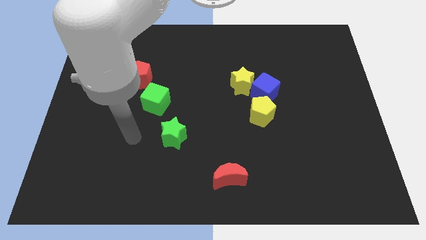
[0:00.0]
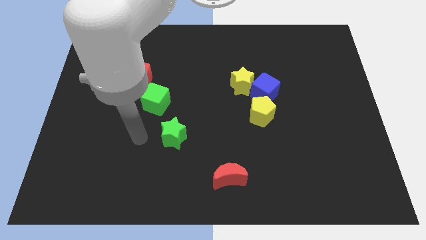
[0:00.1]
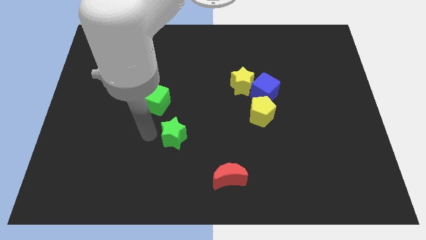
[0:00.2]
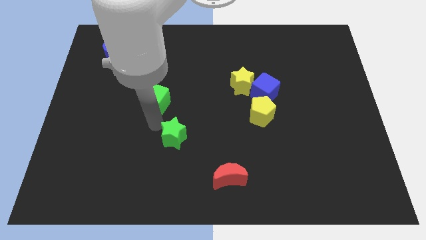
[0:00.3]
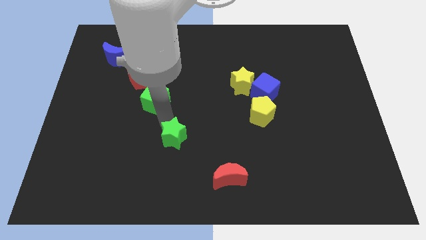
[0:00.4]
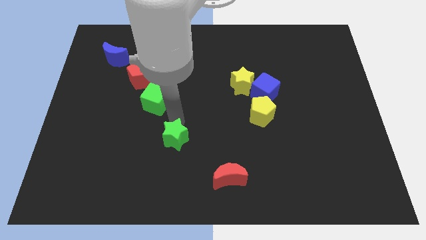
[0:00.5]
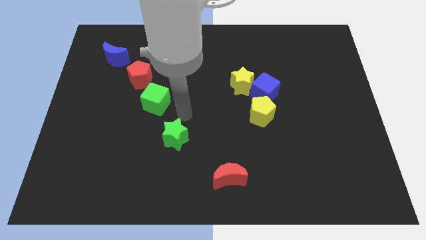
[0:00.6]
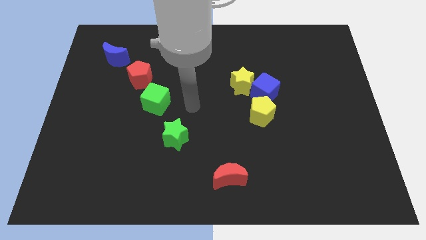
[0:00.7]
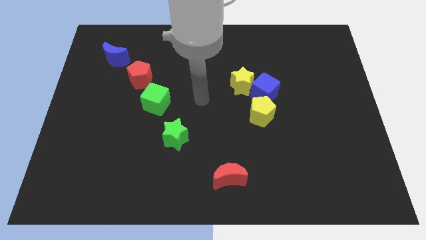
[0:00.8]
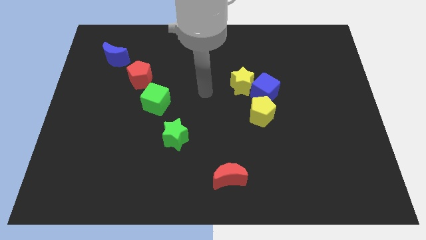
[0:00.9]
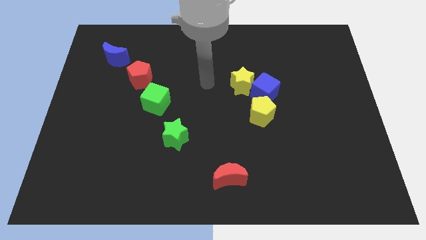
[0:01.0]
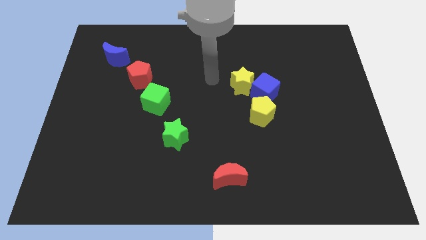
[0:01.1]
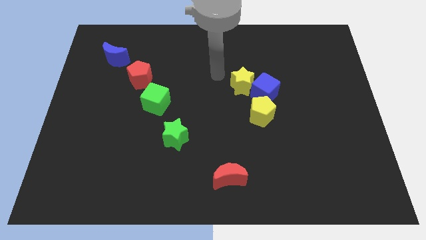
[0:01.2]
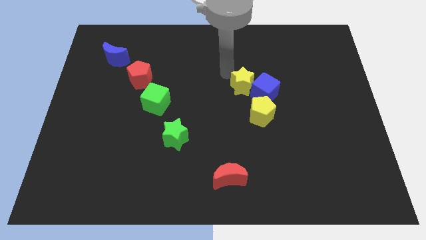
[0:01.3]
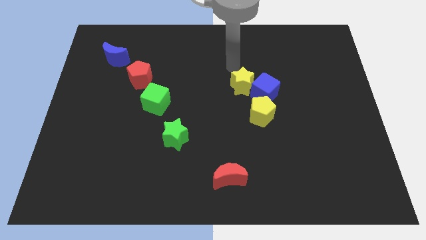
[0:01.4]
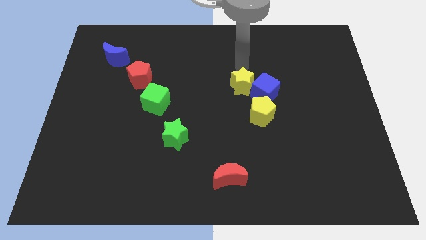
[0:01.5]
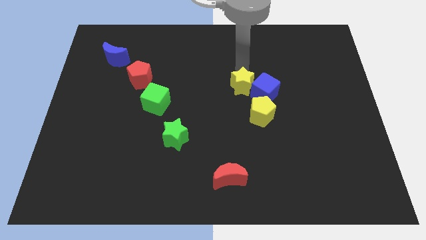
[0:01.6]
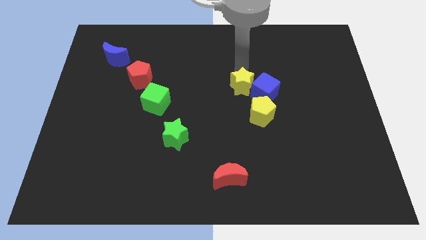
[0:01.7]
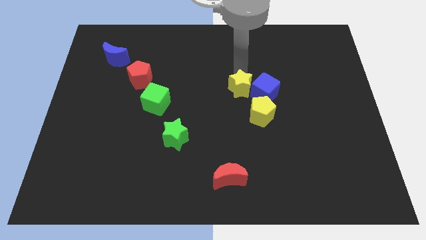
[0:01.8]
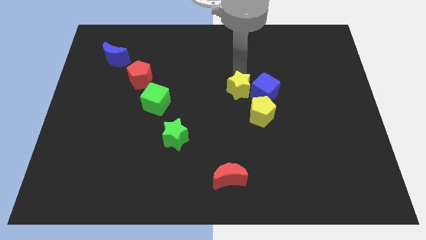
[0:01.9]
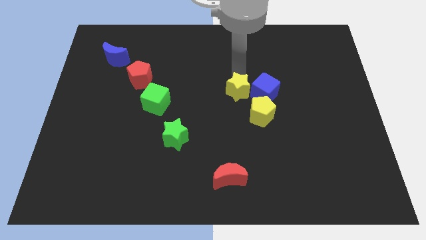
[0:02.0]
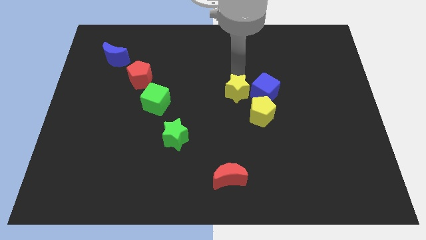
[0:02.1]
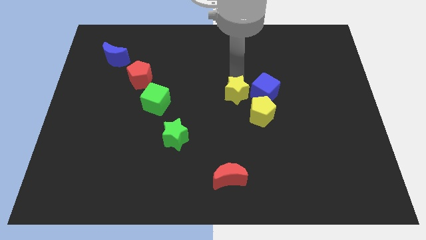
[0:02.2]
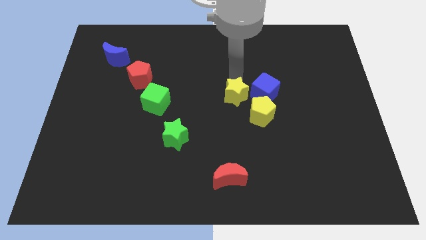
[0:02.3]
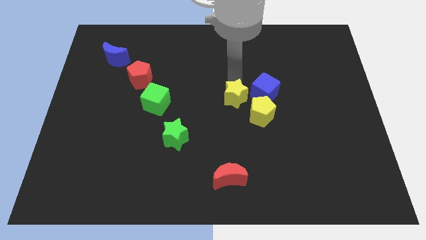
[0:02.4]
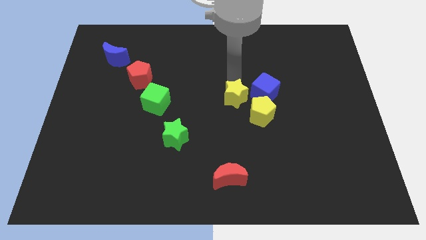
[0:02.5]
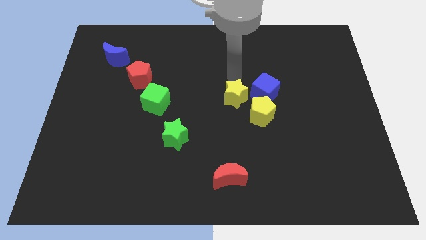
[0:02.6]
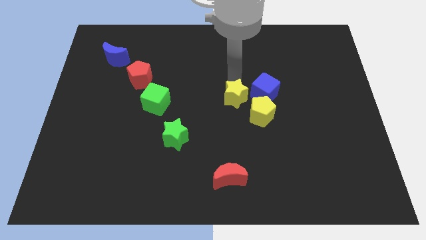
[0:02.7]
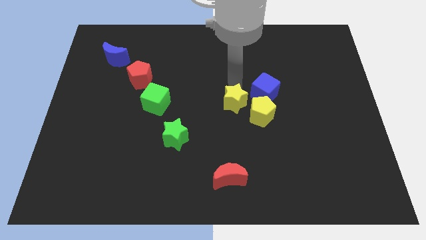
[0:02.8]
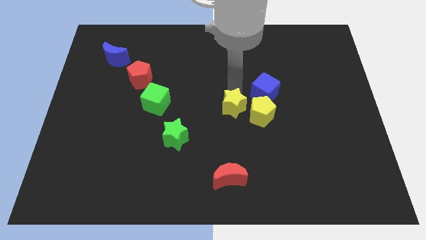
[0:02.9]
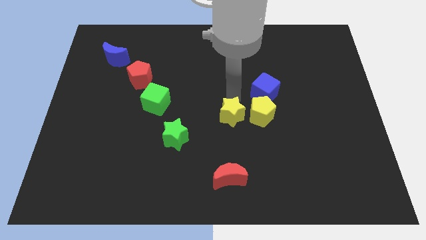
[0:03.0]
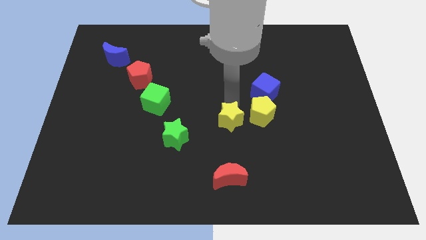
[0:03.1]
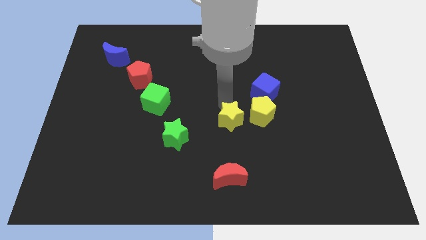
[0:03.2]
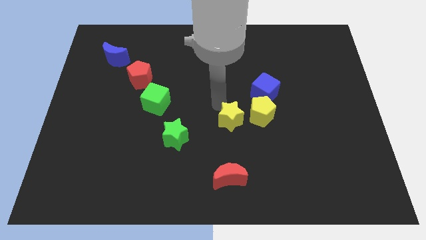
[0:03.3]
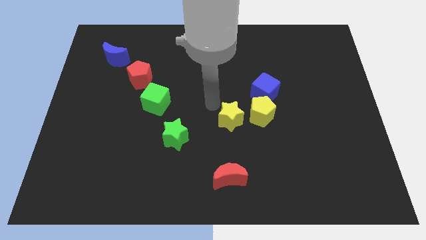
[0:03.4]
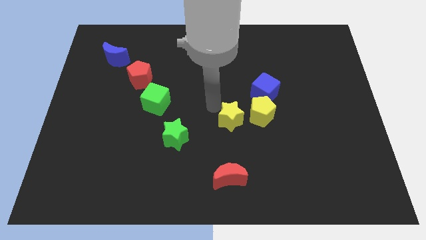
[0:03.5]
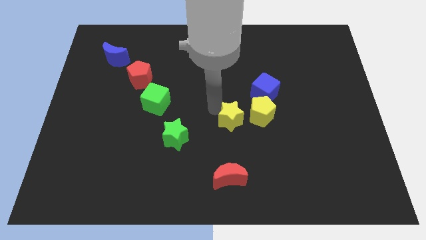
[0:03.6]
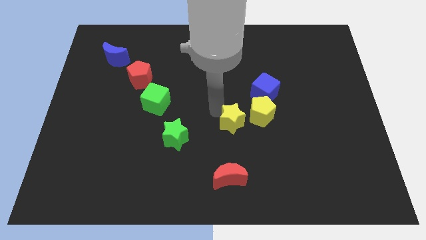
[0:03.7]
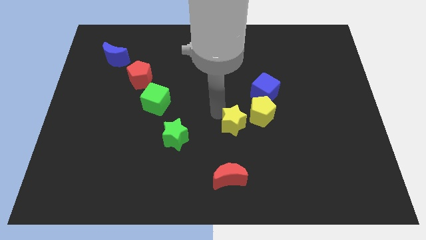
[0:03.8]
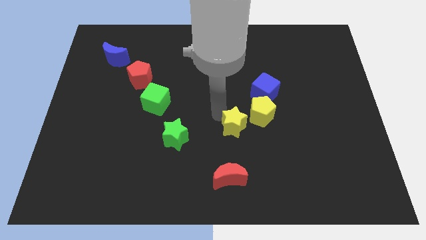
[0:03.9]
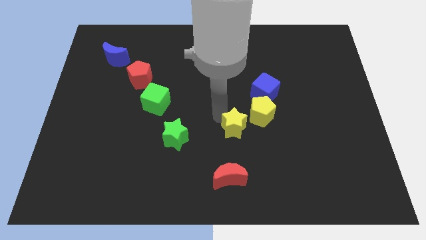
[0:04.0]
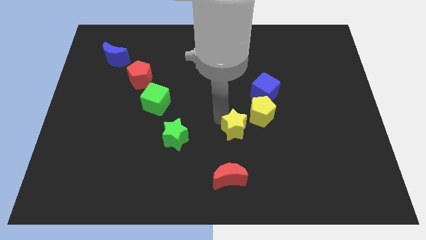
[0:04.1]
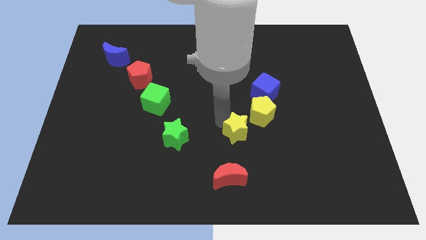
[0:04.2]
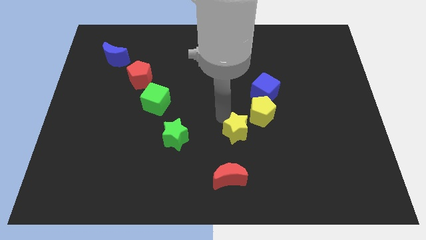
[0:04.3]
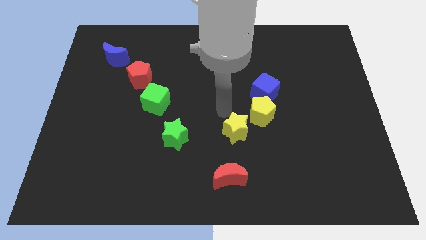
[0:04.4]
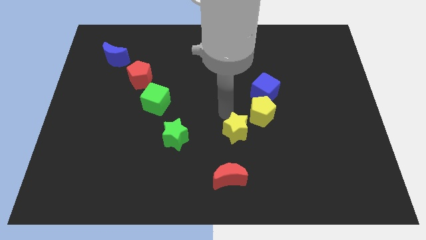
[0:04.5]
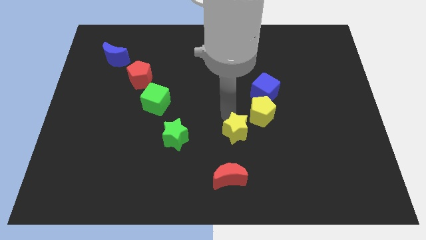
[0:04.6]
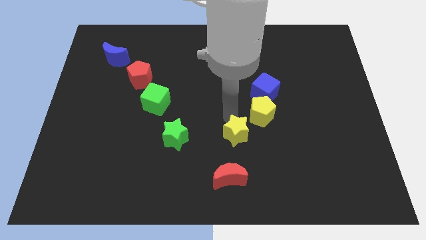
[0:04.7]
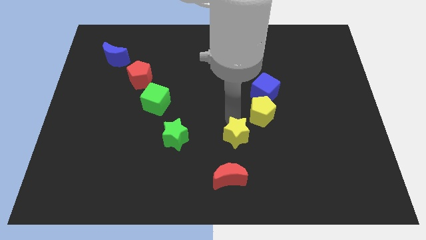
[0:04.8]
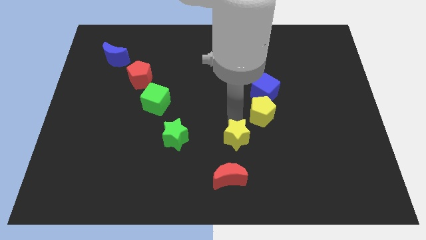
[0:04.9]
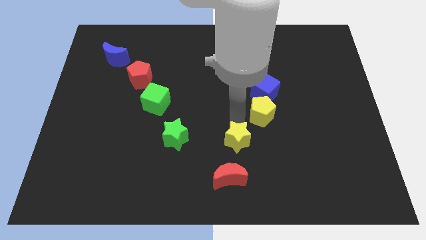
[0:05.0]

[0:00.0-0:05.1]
put the yellow star to the top right side of the red moon

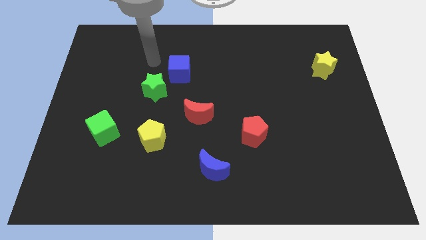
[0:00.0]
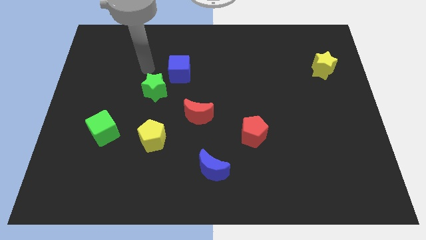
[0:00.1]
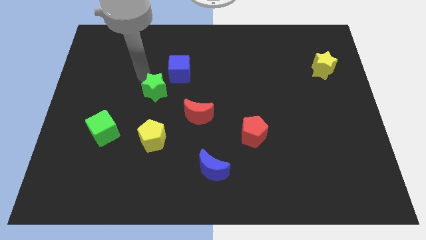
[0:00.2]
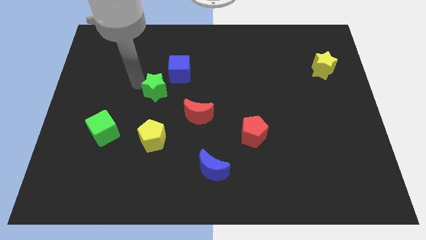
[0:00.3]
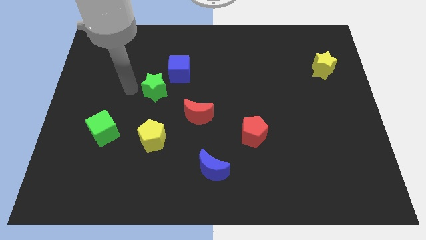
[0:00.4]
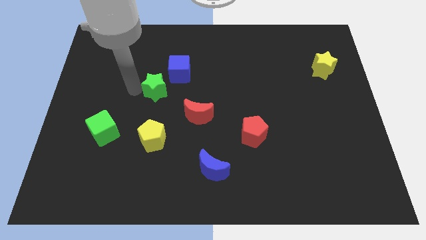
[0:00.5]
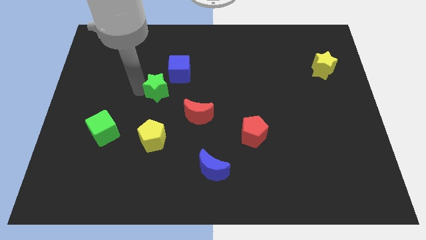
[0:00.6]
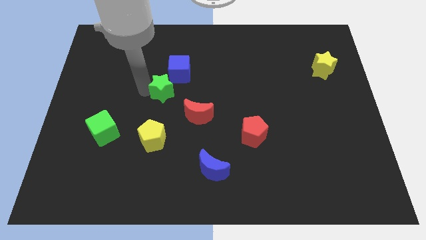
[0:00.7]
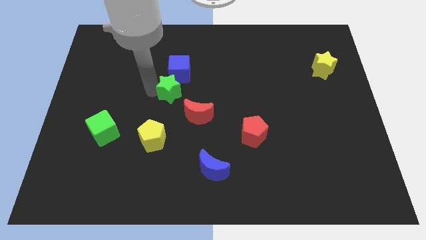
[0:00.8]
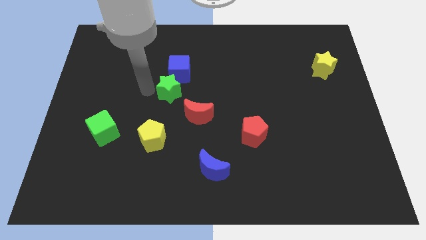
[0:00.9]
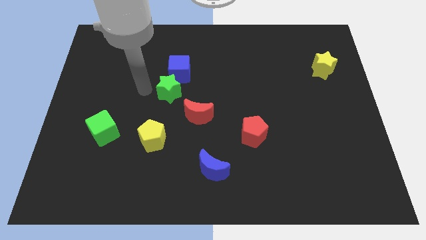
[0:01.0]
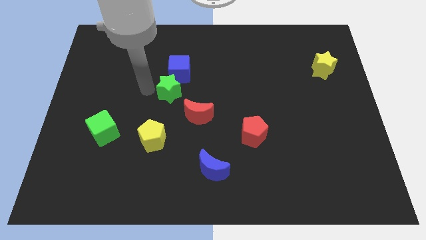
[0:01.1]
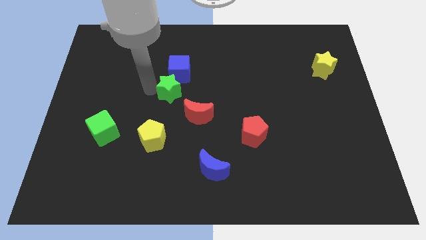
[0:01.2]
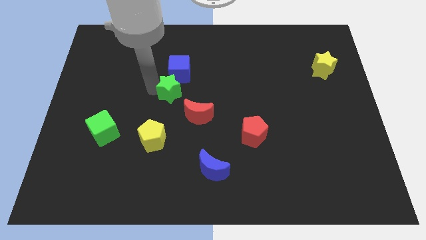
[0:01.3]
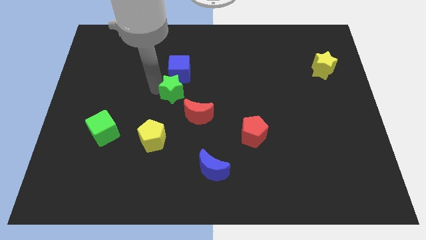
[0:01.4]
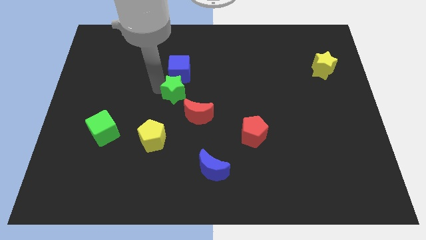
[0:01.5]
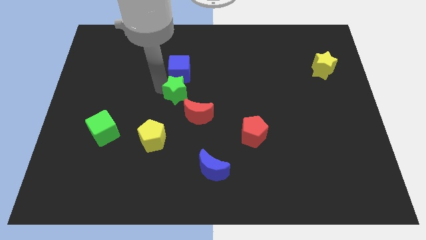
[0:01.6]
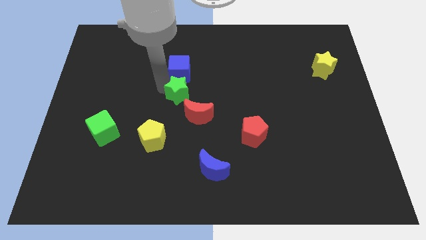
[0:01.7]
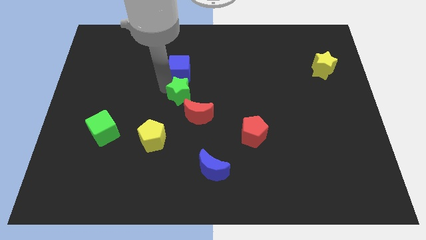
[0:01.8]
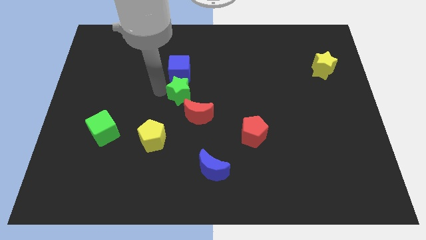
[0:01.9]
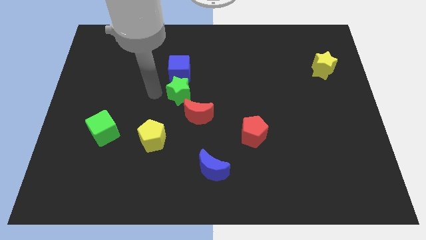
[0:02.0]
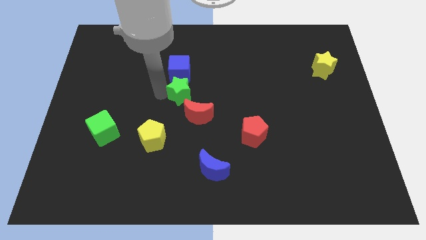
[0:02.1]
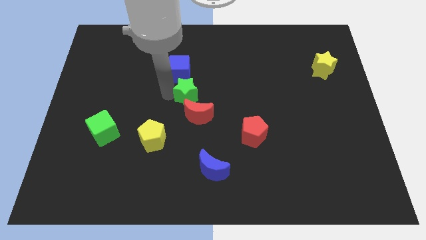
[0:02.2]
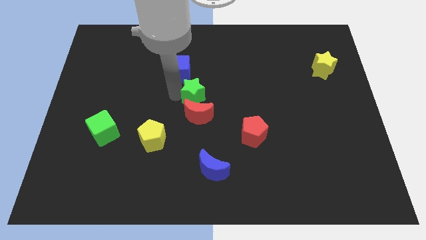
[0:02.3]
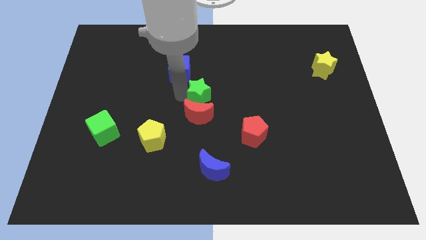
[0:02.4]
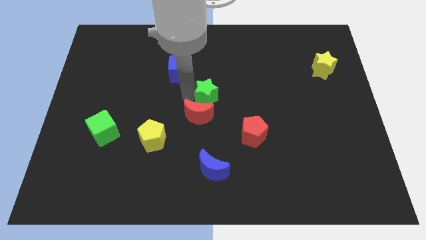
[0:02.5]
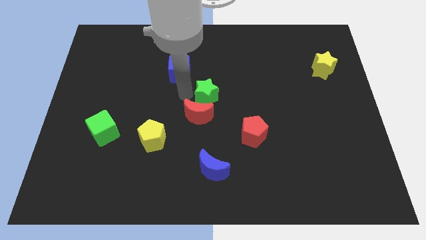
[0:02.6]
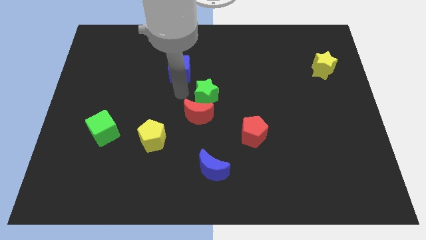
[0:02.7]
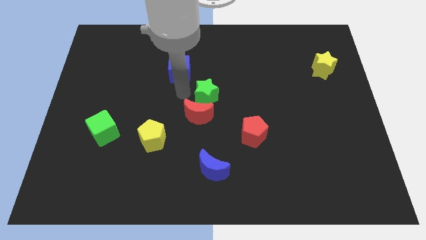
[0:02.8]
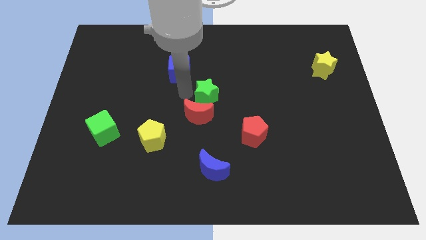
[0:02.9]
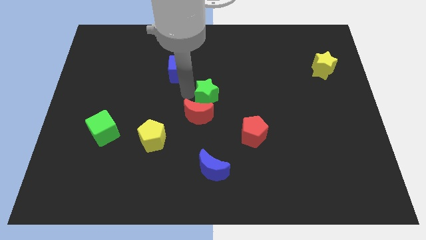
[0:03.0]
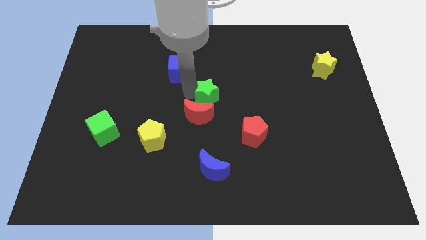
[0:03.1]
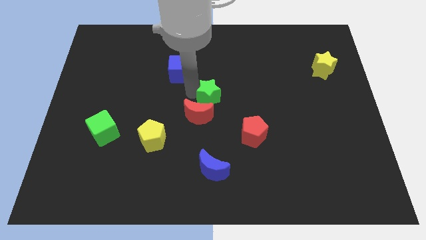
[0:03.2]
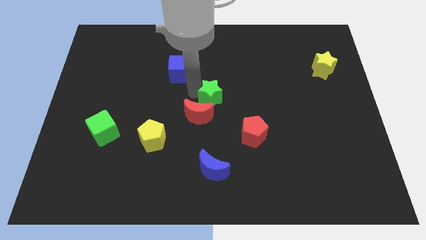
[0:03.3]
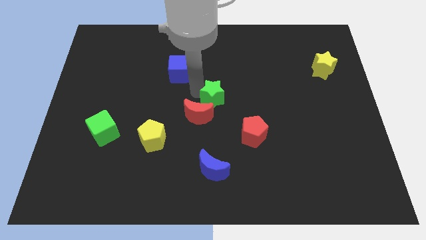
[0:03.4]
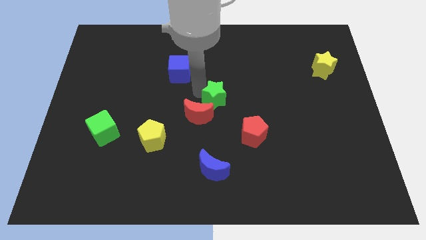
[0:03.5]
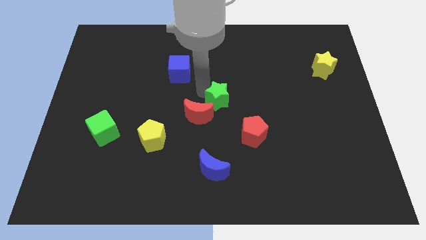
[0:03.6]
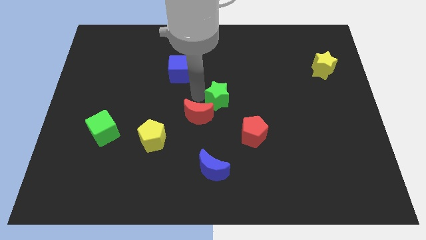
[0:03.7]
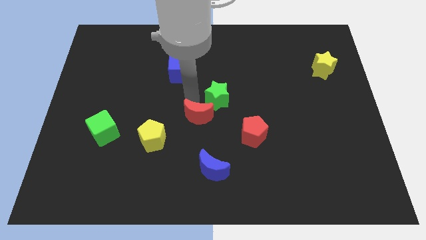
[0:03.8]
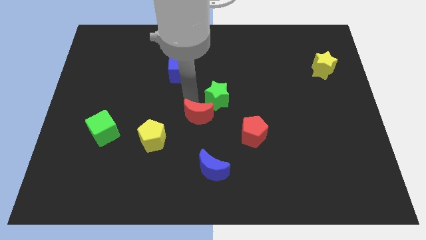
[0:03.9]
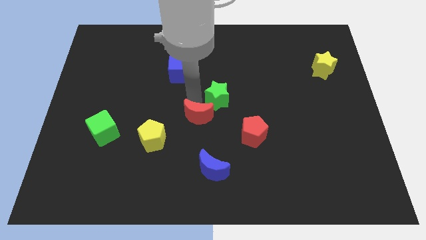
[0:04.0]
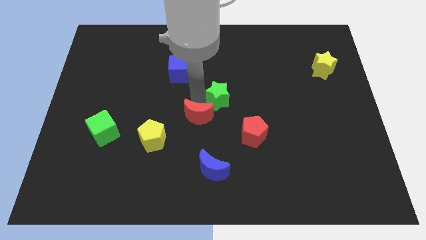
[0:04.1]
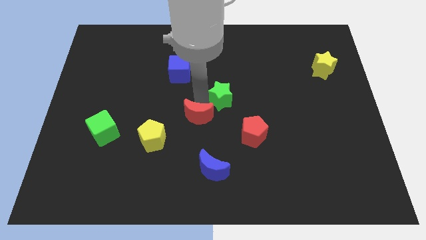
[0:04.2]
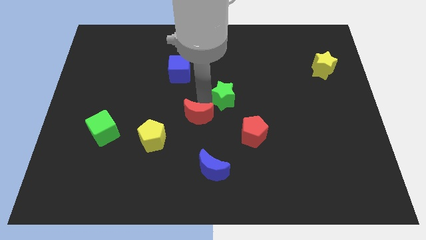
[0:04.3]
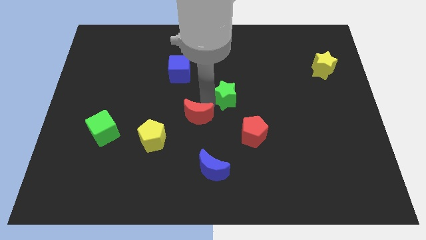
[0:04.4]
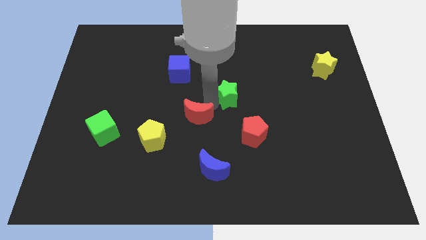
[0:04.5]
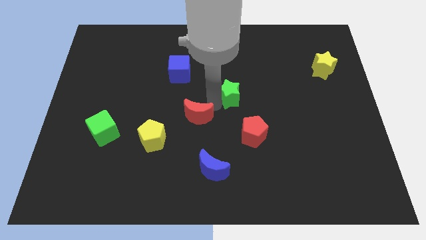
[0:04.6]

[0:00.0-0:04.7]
push the green star to the top of the red pentagon
